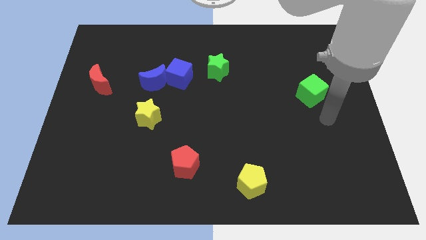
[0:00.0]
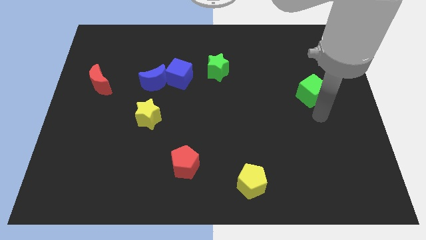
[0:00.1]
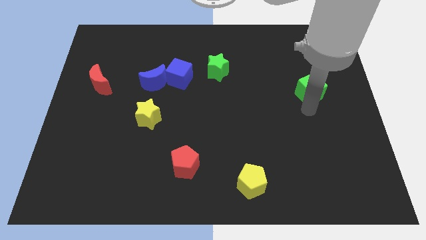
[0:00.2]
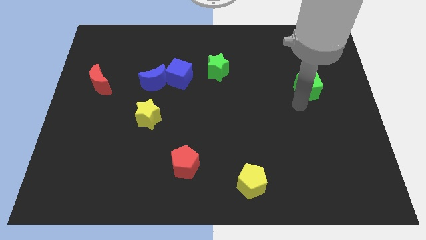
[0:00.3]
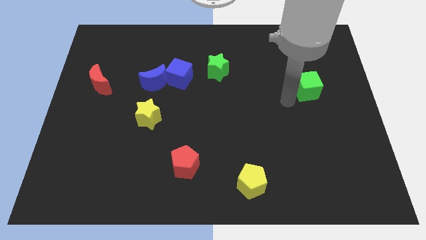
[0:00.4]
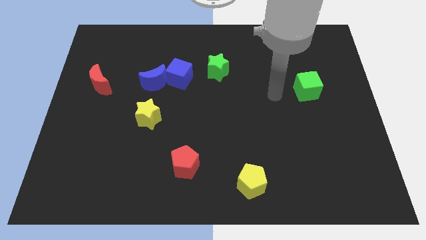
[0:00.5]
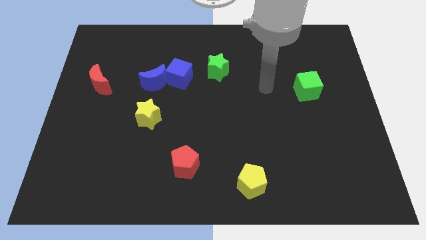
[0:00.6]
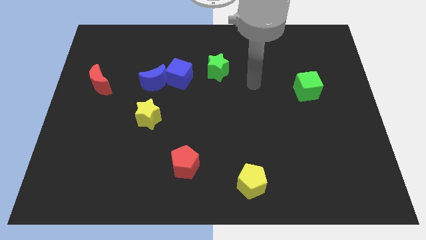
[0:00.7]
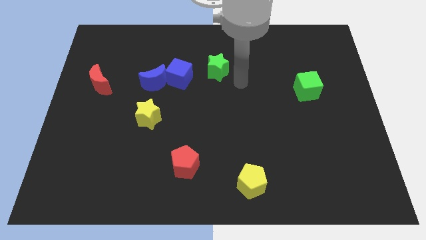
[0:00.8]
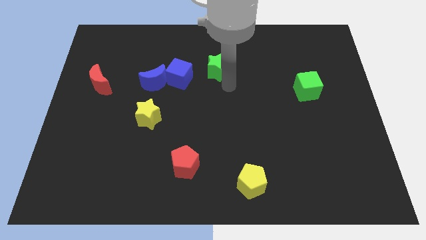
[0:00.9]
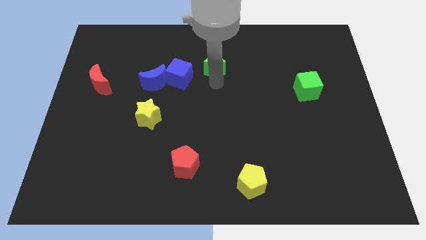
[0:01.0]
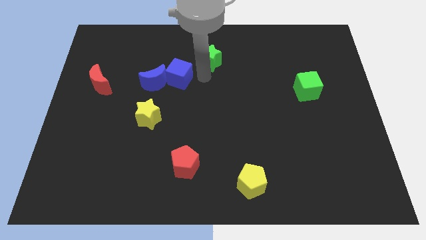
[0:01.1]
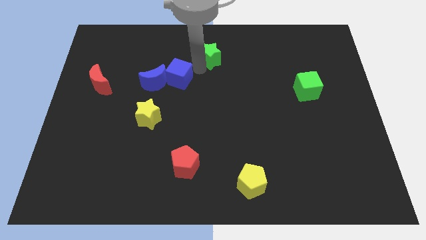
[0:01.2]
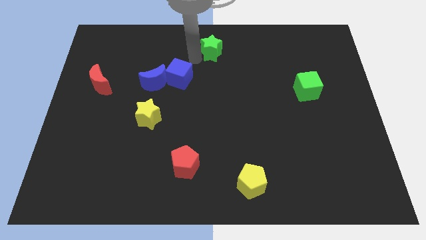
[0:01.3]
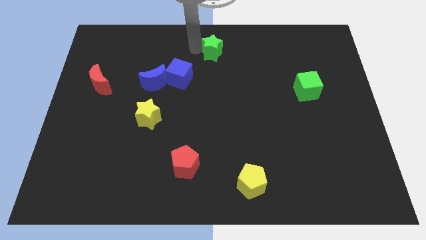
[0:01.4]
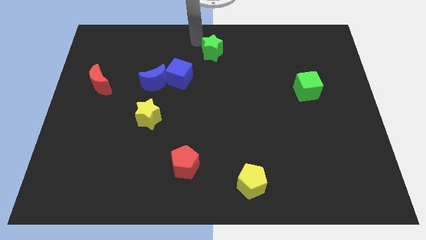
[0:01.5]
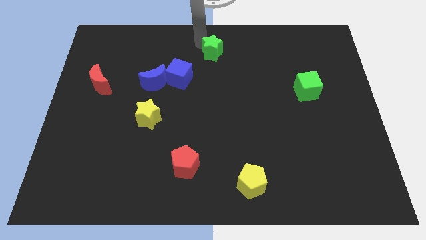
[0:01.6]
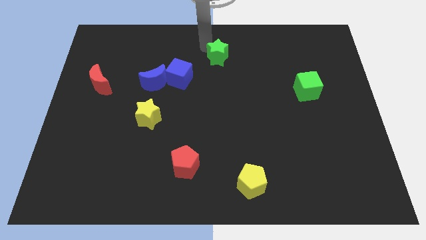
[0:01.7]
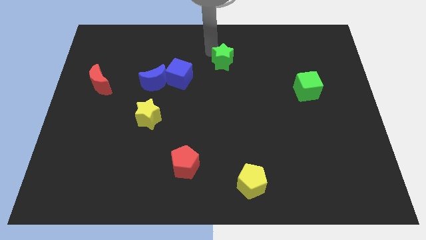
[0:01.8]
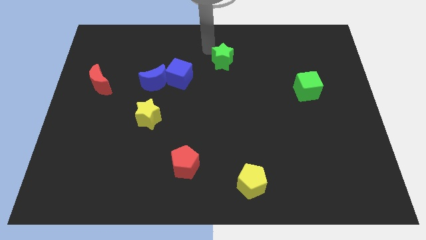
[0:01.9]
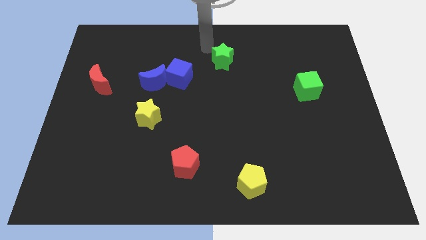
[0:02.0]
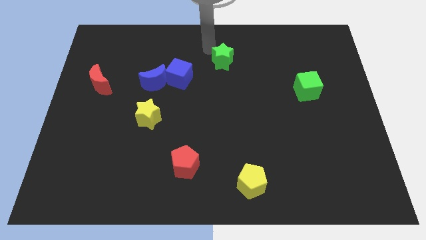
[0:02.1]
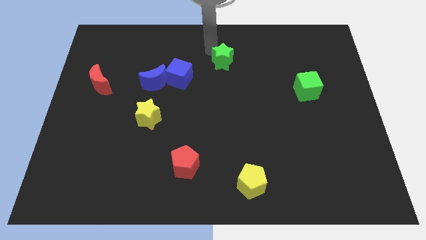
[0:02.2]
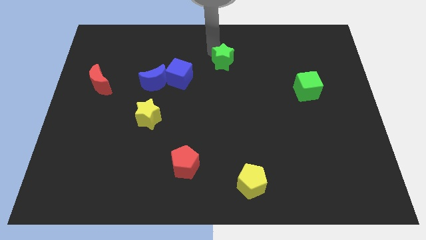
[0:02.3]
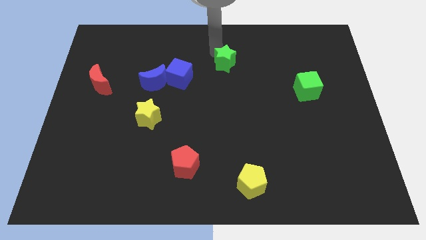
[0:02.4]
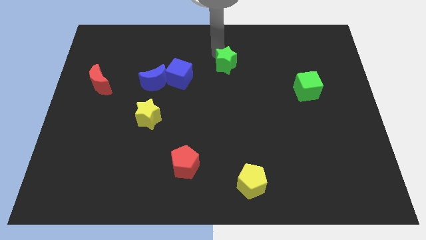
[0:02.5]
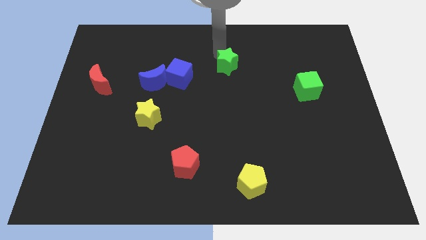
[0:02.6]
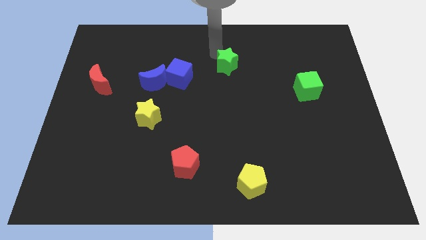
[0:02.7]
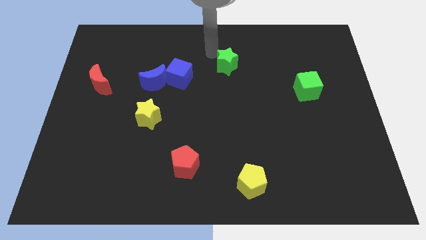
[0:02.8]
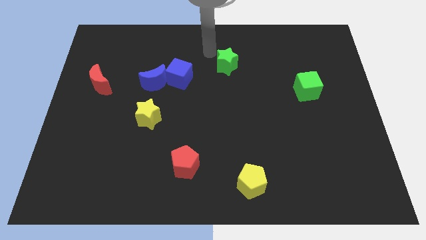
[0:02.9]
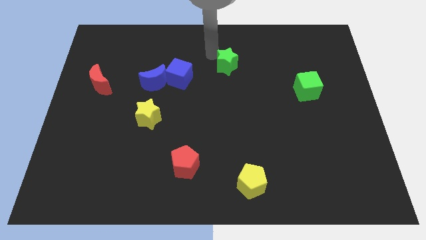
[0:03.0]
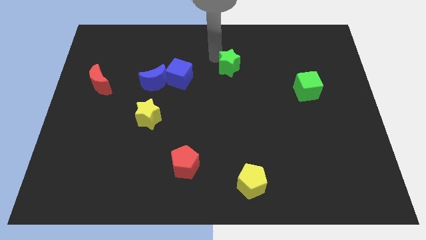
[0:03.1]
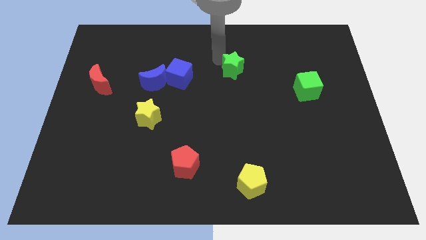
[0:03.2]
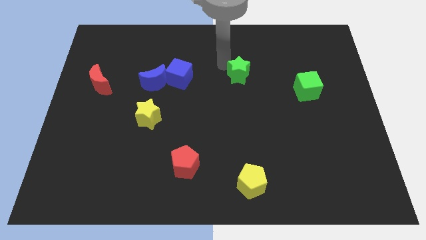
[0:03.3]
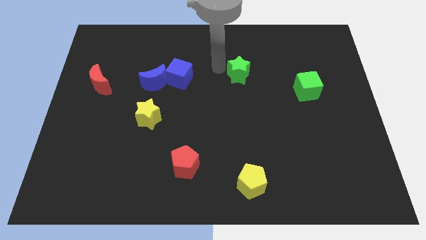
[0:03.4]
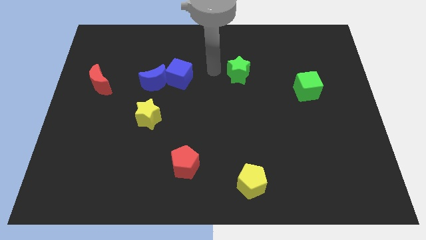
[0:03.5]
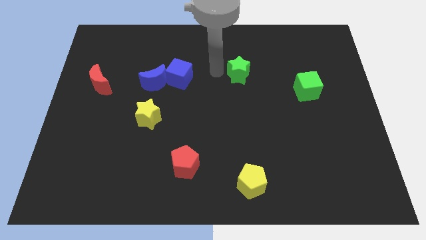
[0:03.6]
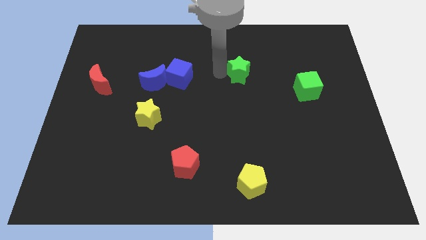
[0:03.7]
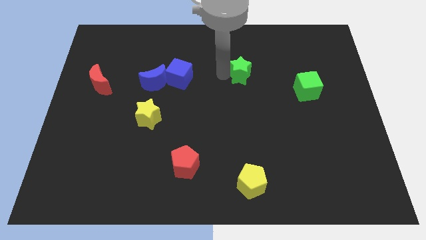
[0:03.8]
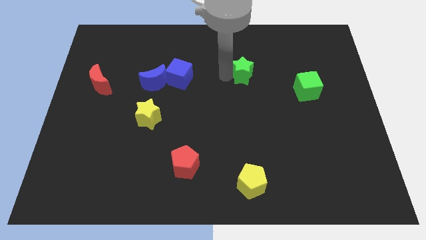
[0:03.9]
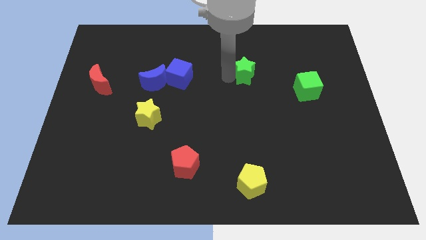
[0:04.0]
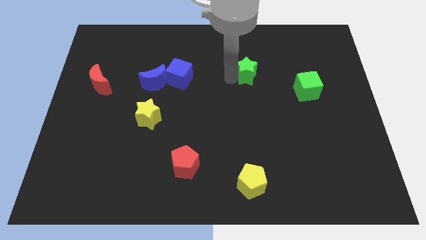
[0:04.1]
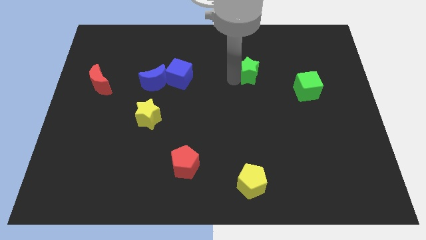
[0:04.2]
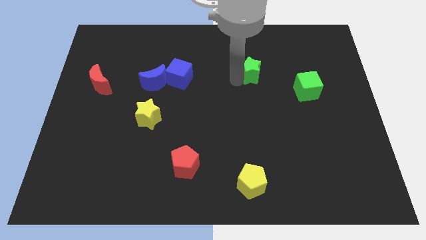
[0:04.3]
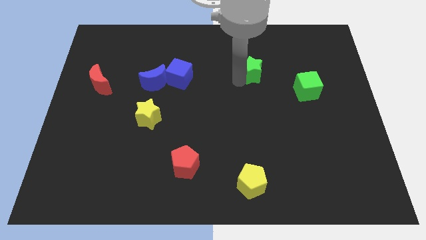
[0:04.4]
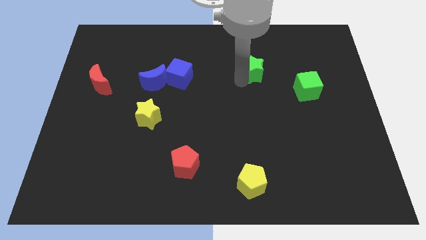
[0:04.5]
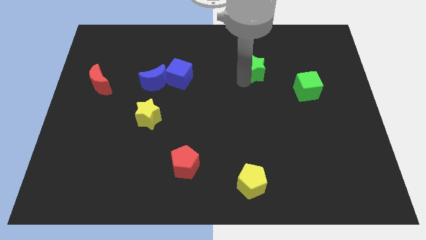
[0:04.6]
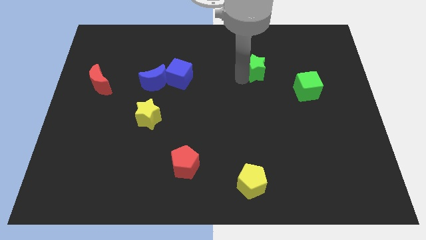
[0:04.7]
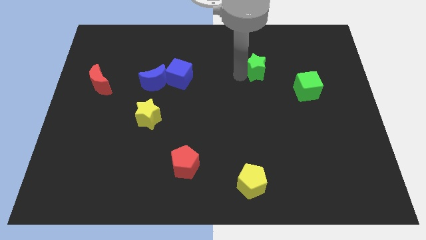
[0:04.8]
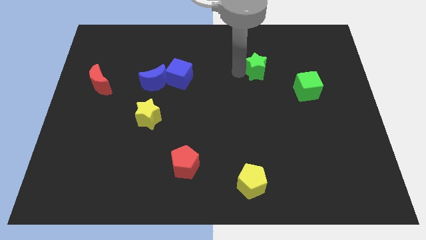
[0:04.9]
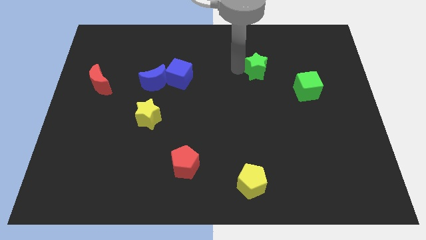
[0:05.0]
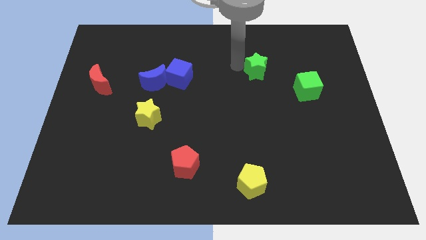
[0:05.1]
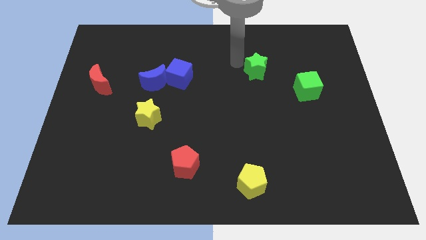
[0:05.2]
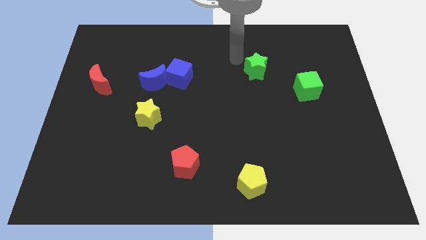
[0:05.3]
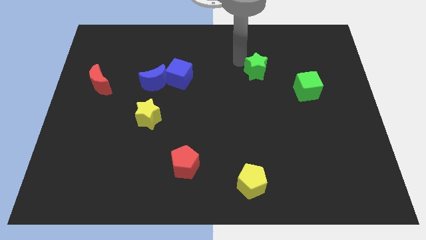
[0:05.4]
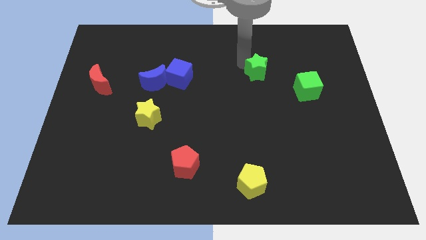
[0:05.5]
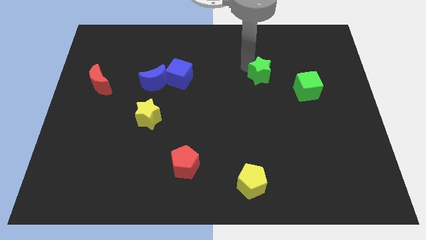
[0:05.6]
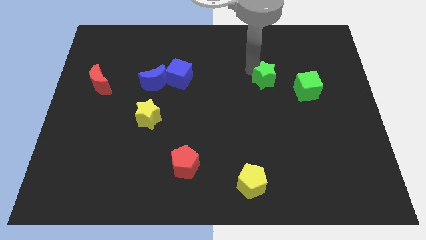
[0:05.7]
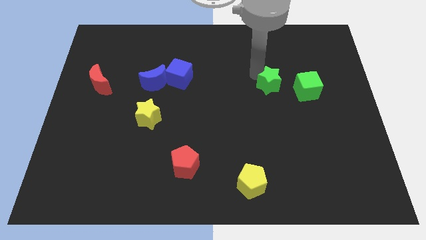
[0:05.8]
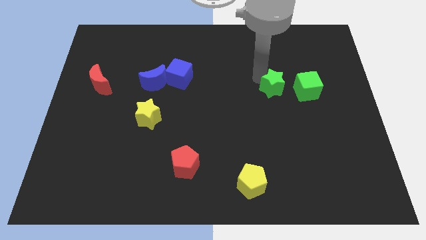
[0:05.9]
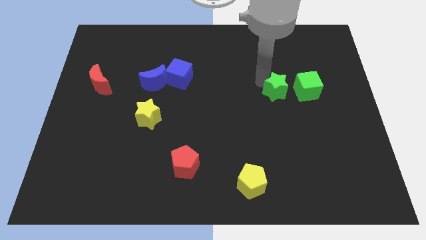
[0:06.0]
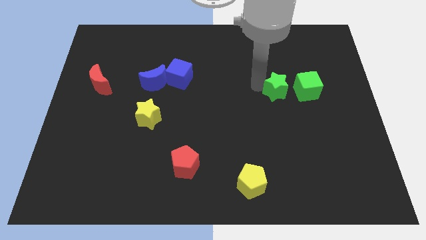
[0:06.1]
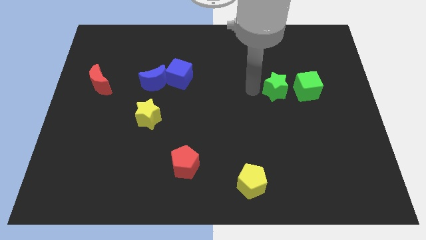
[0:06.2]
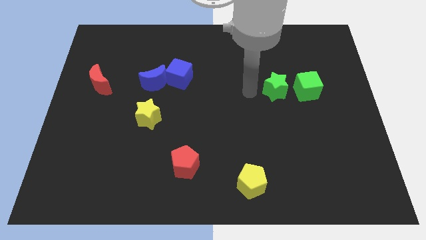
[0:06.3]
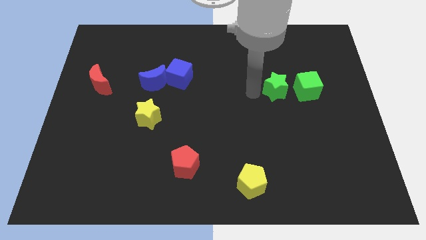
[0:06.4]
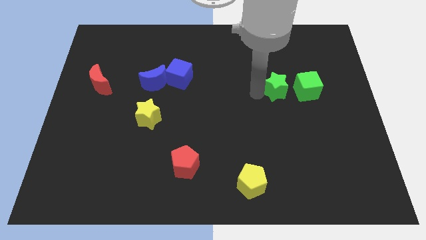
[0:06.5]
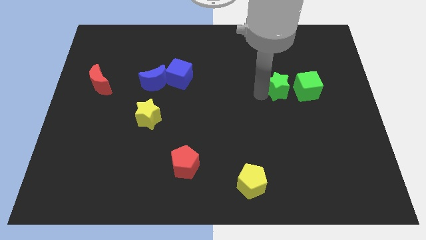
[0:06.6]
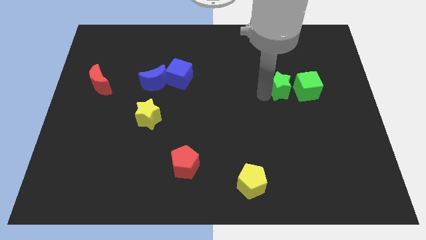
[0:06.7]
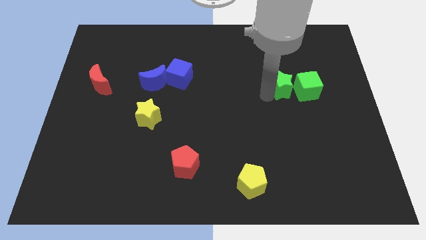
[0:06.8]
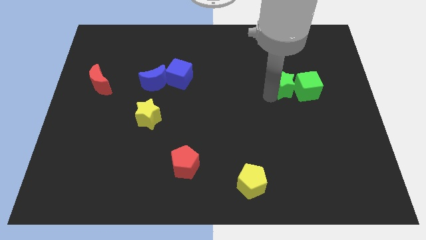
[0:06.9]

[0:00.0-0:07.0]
put the green star to the green cube

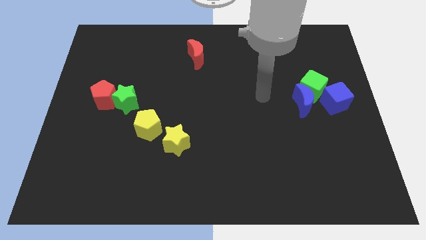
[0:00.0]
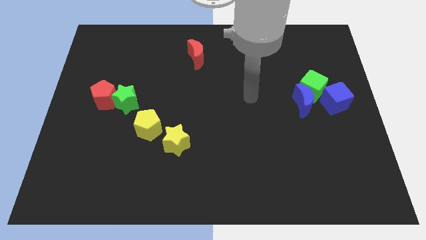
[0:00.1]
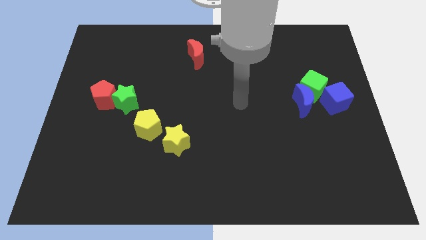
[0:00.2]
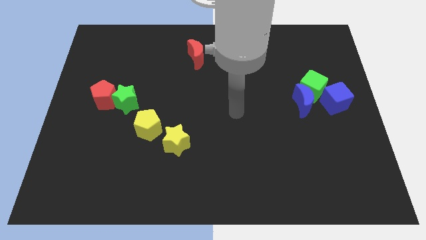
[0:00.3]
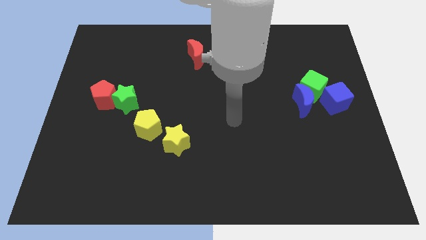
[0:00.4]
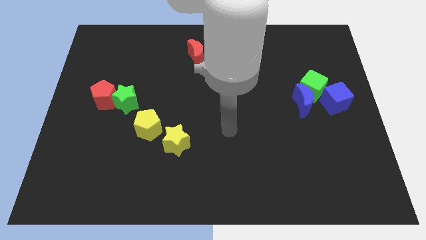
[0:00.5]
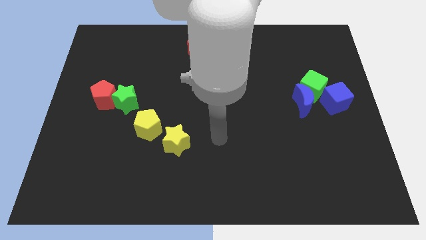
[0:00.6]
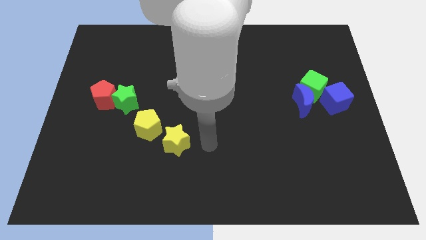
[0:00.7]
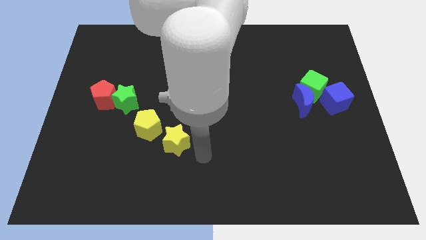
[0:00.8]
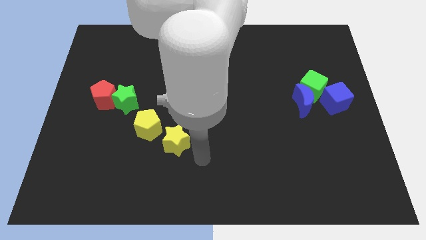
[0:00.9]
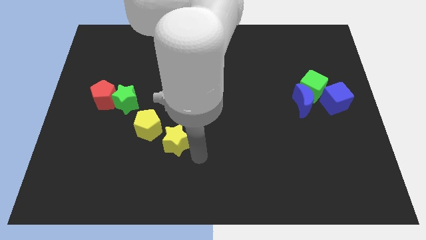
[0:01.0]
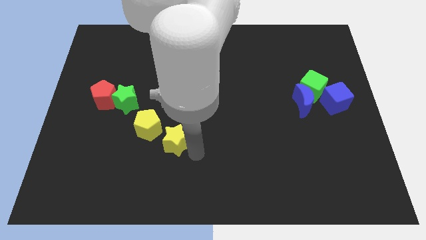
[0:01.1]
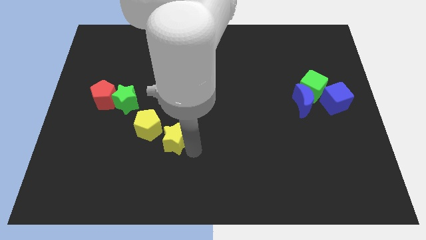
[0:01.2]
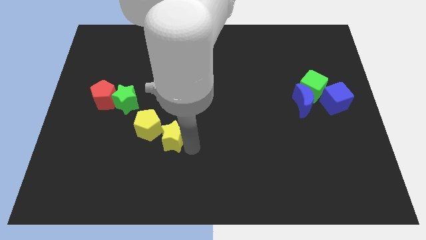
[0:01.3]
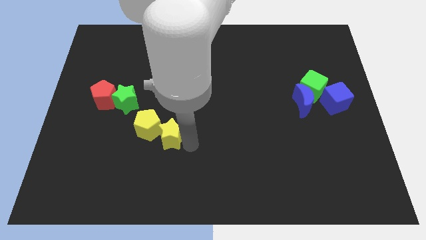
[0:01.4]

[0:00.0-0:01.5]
slide the yellow star next to the yellow pentagon
